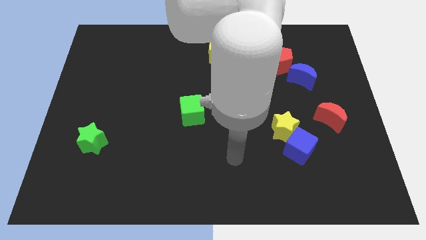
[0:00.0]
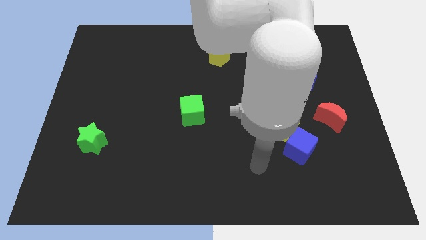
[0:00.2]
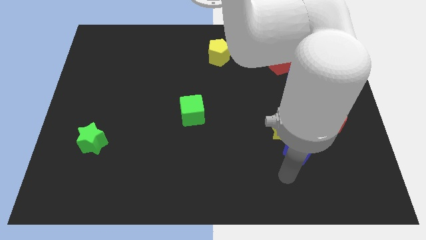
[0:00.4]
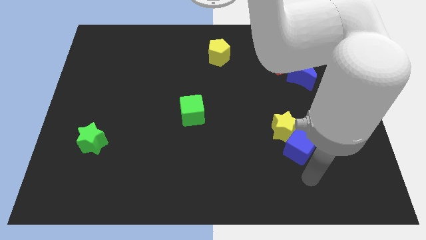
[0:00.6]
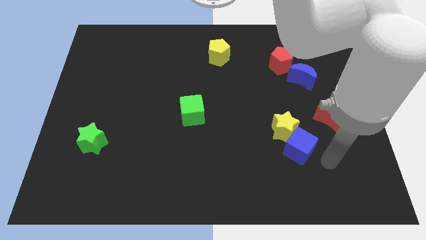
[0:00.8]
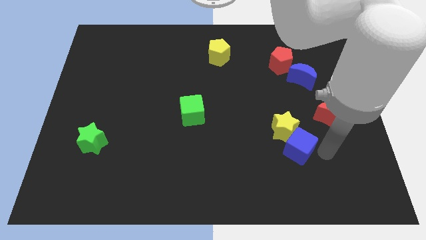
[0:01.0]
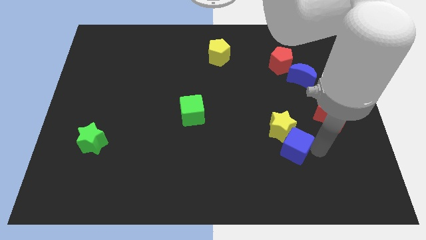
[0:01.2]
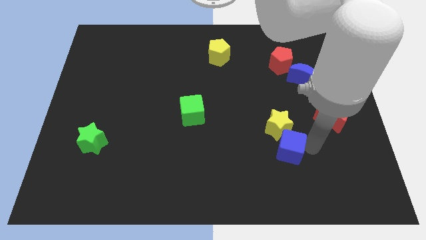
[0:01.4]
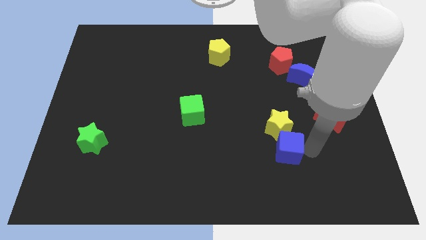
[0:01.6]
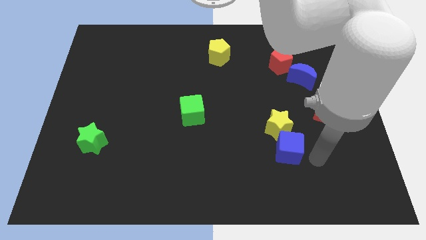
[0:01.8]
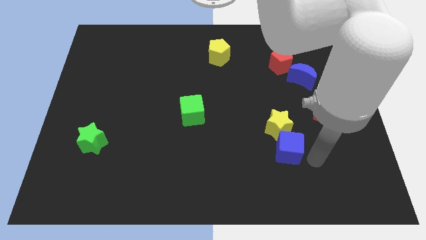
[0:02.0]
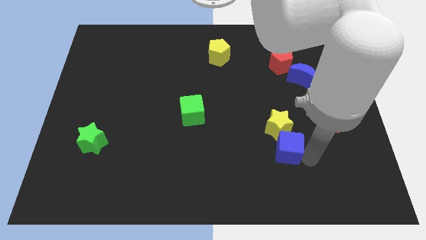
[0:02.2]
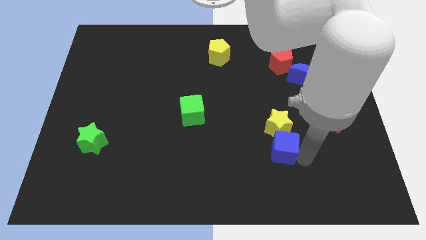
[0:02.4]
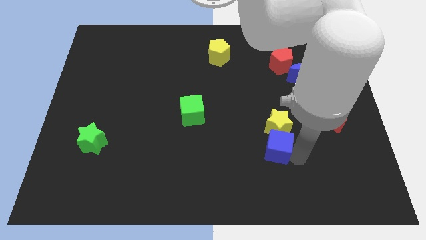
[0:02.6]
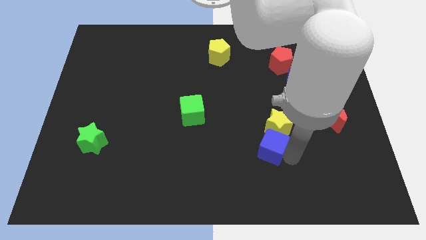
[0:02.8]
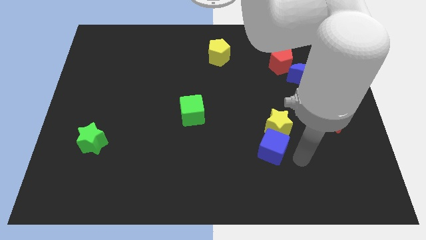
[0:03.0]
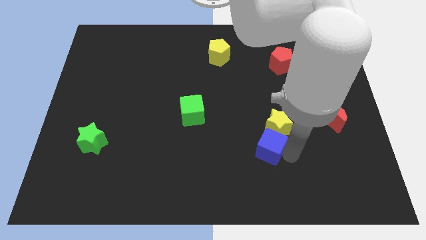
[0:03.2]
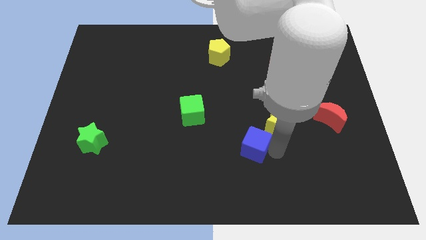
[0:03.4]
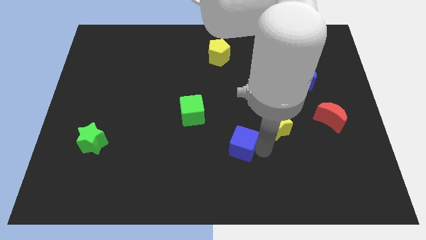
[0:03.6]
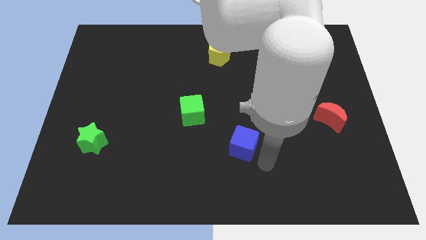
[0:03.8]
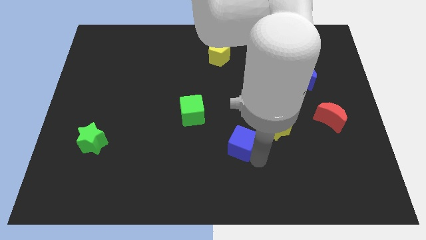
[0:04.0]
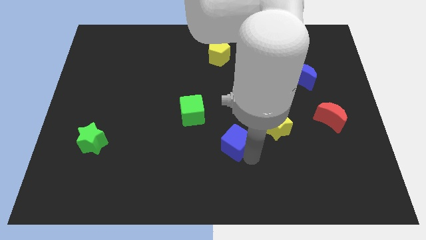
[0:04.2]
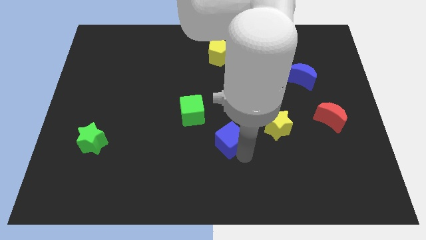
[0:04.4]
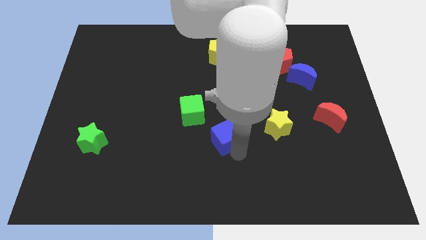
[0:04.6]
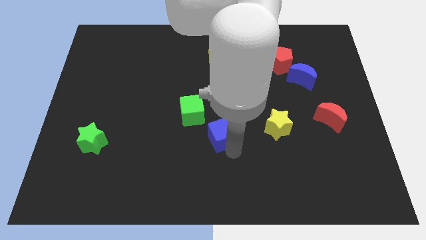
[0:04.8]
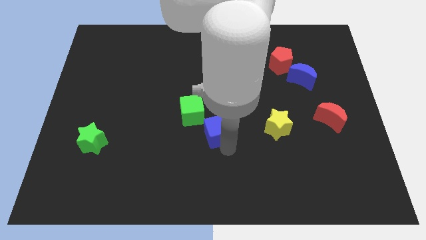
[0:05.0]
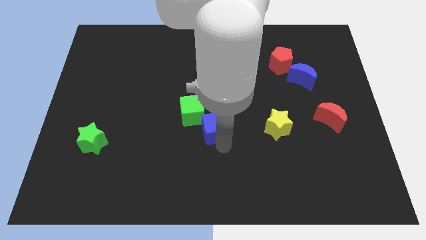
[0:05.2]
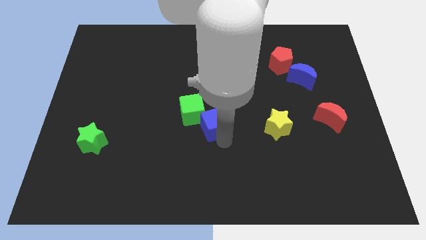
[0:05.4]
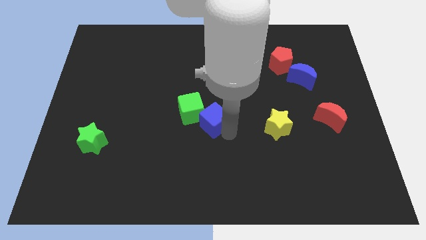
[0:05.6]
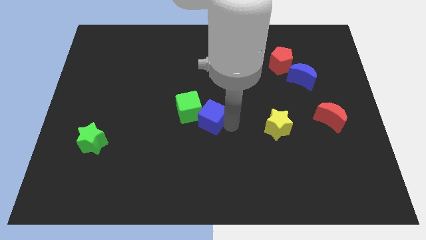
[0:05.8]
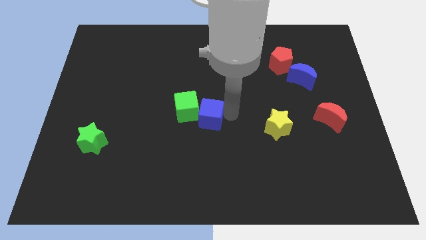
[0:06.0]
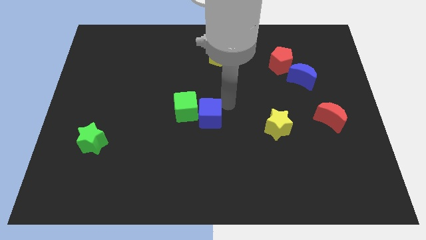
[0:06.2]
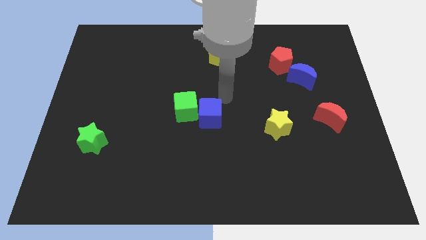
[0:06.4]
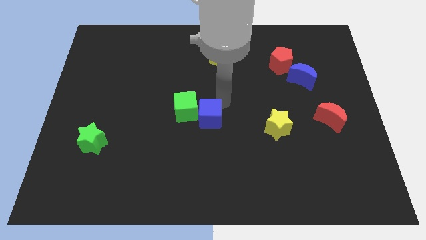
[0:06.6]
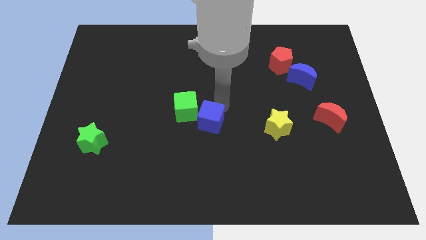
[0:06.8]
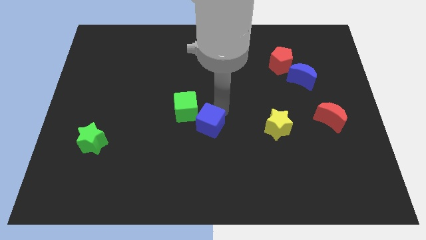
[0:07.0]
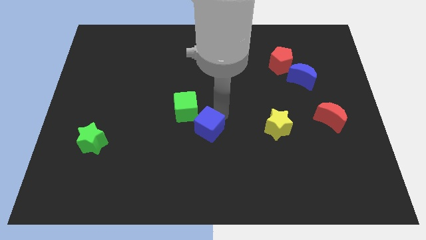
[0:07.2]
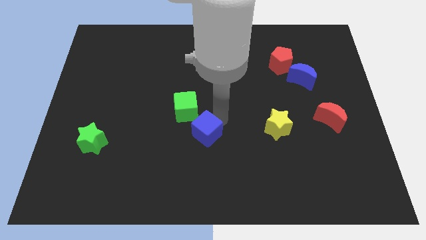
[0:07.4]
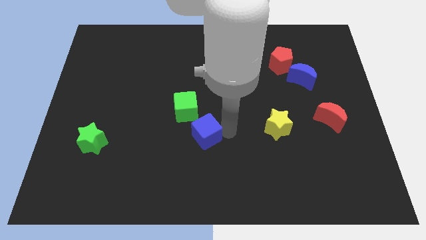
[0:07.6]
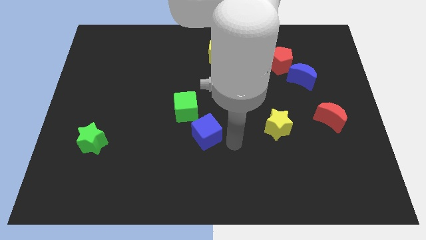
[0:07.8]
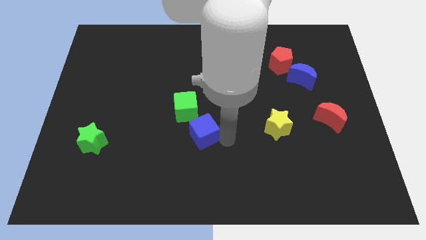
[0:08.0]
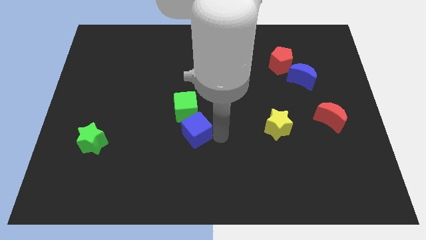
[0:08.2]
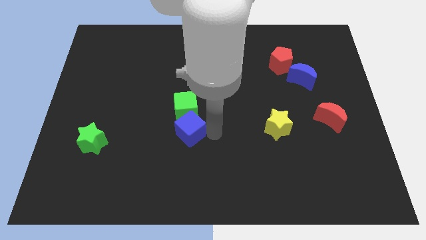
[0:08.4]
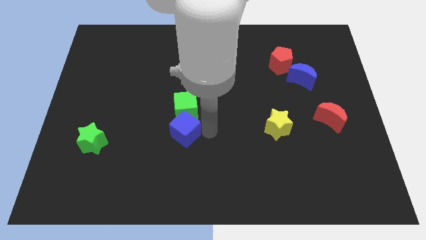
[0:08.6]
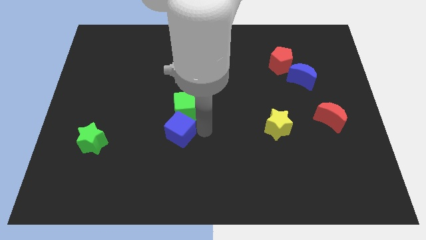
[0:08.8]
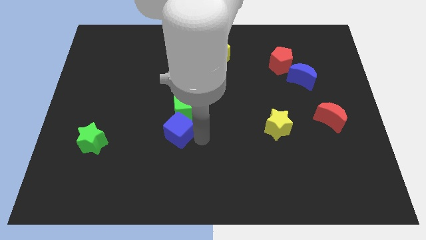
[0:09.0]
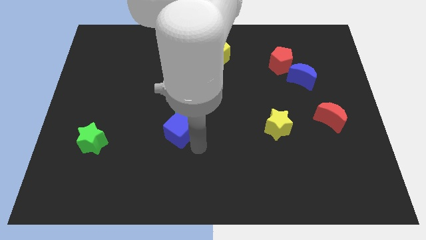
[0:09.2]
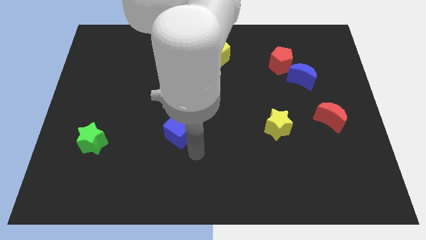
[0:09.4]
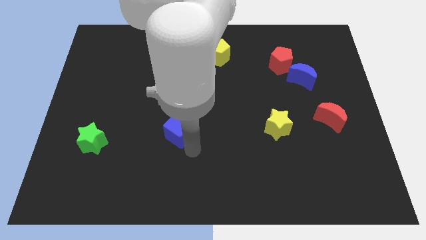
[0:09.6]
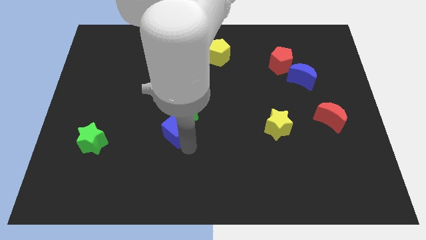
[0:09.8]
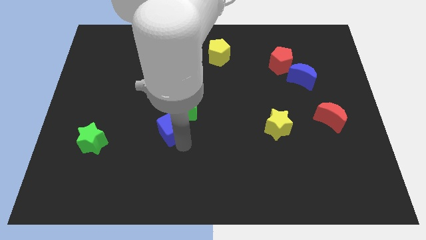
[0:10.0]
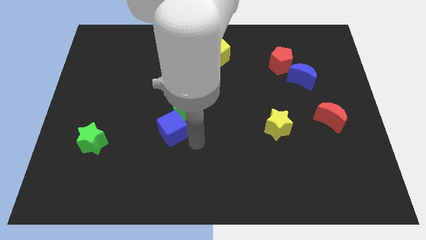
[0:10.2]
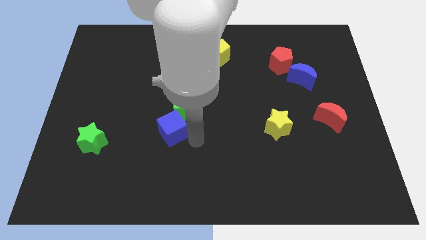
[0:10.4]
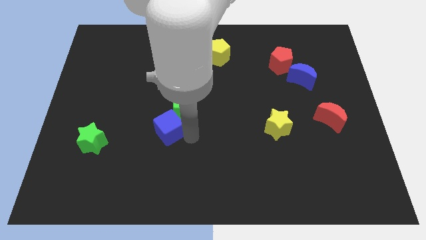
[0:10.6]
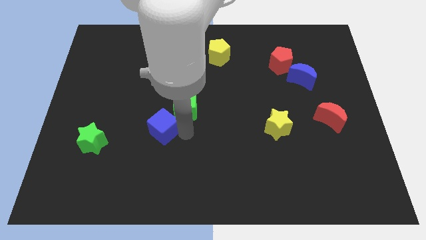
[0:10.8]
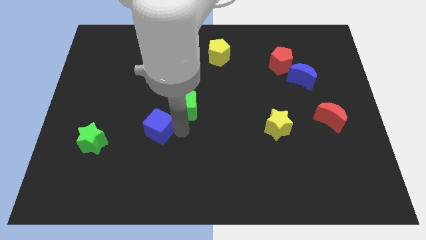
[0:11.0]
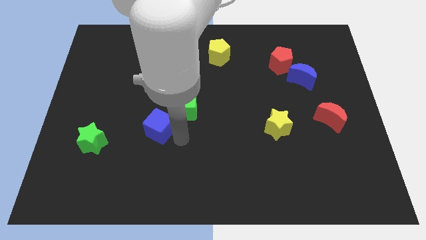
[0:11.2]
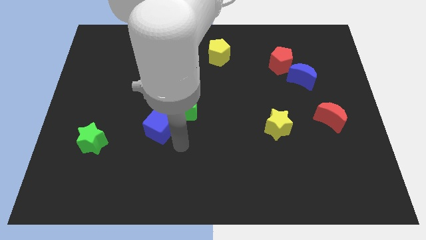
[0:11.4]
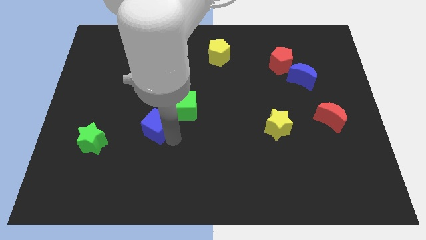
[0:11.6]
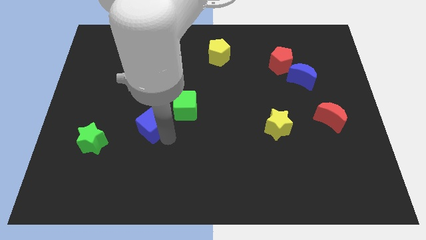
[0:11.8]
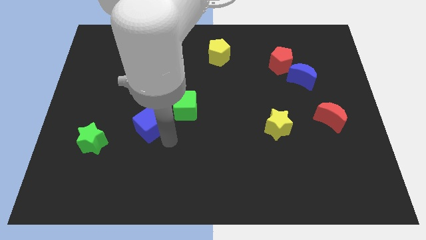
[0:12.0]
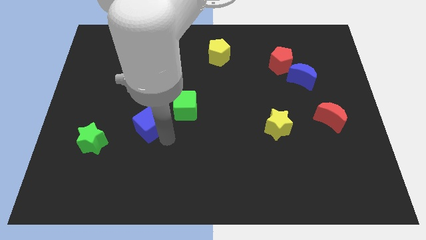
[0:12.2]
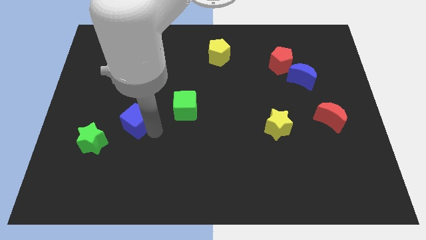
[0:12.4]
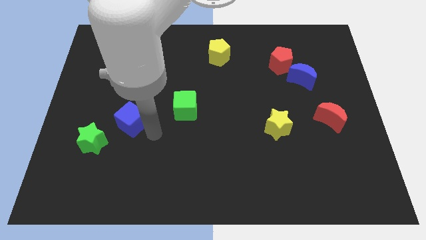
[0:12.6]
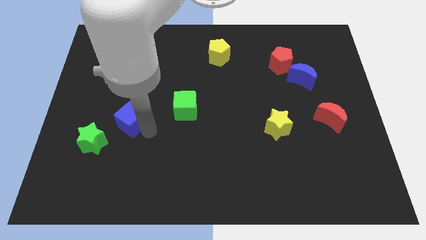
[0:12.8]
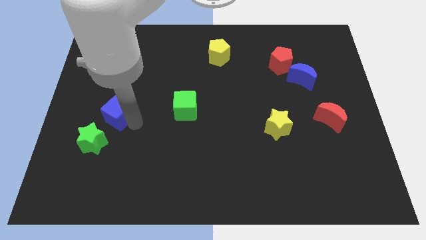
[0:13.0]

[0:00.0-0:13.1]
put the blue cube to the top side of the green star

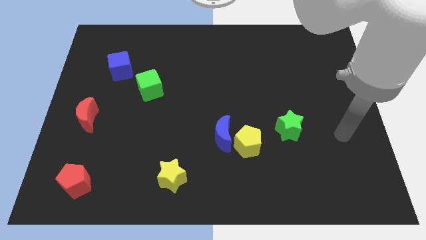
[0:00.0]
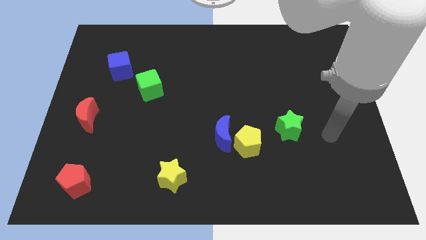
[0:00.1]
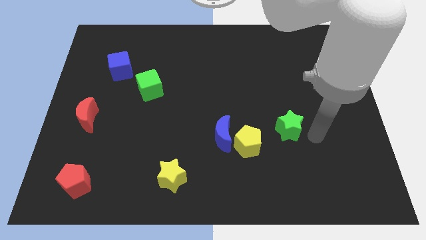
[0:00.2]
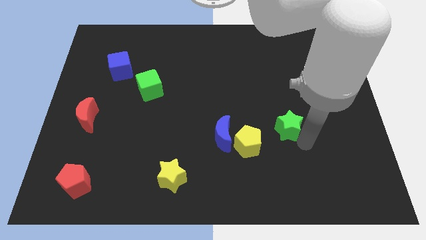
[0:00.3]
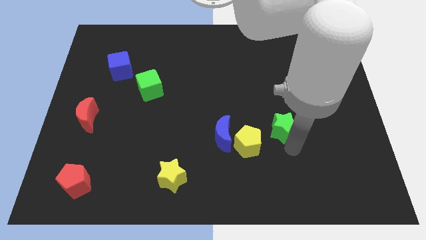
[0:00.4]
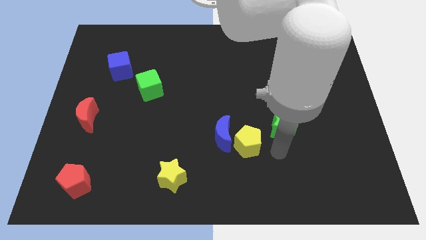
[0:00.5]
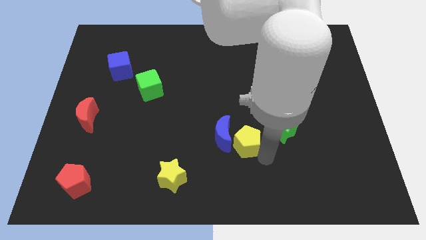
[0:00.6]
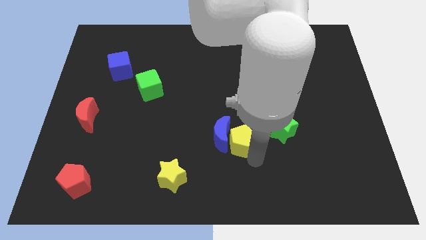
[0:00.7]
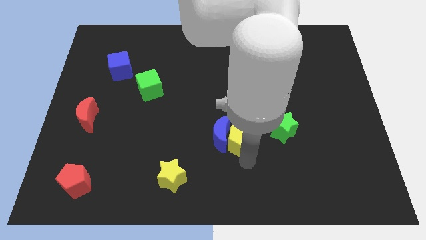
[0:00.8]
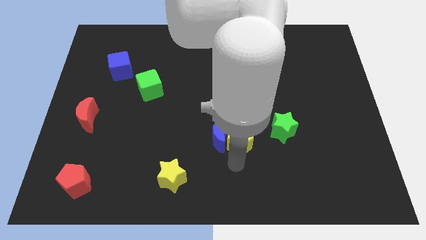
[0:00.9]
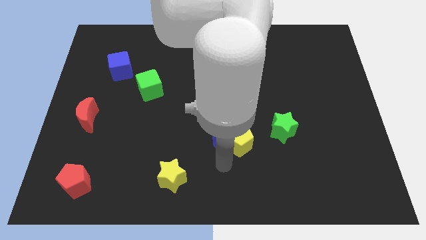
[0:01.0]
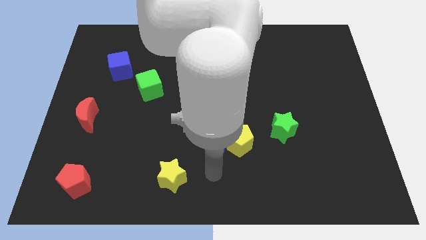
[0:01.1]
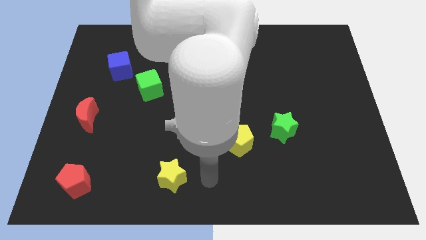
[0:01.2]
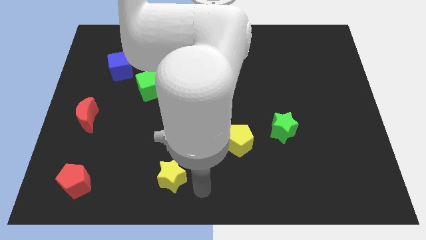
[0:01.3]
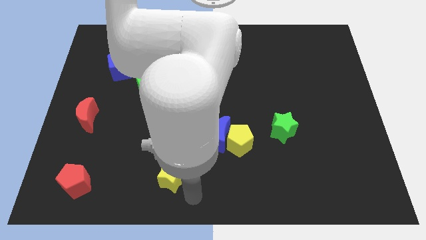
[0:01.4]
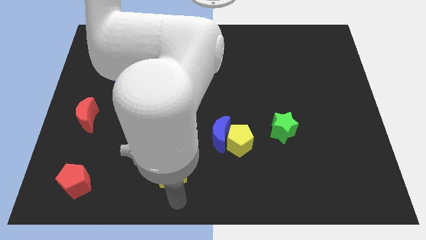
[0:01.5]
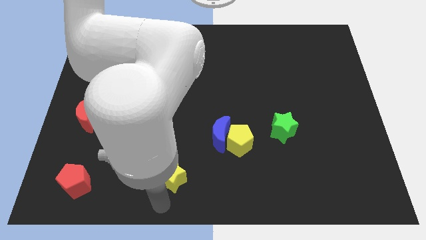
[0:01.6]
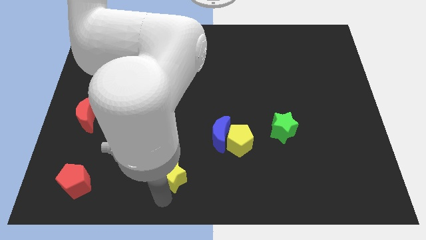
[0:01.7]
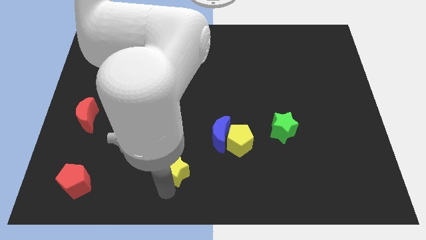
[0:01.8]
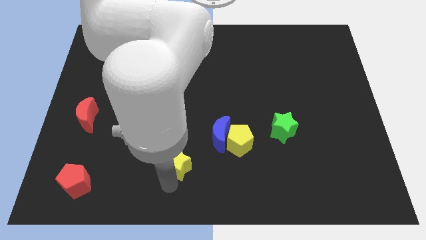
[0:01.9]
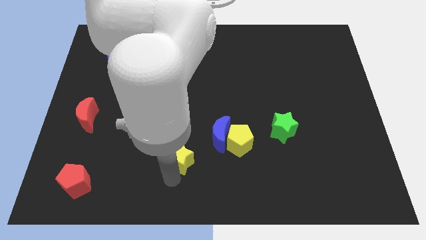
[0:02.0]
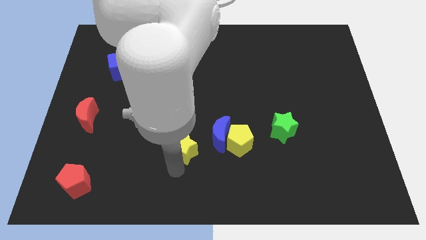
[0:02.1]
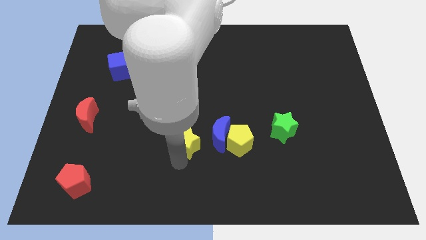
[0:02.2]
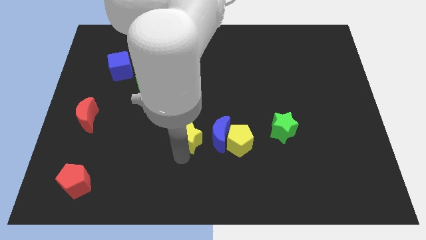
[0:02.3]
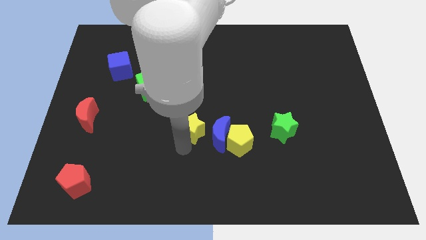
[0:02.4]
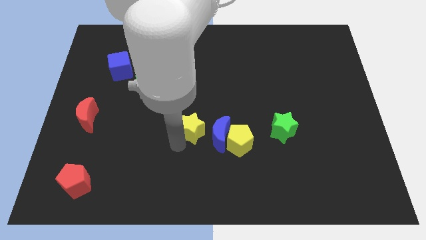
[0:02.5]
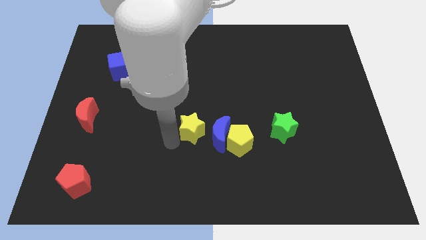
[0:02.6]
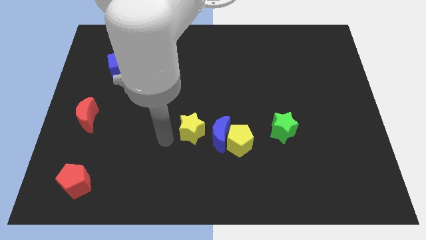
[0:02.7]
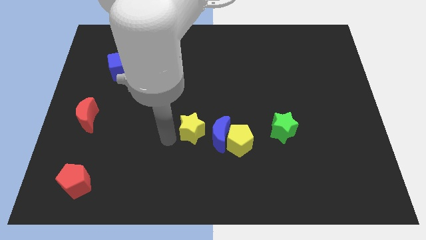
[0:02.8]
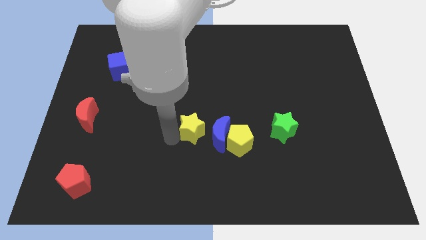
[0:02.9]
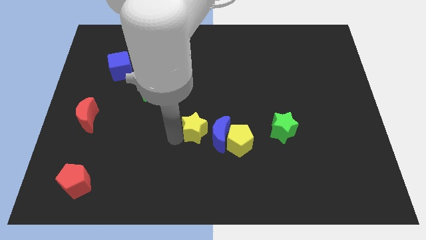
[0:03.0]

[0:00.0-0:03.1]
push the yellow star to the top left of the yellow pentagon
